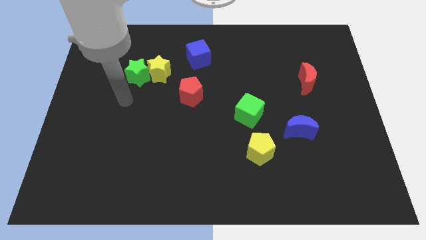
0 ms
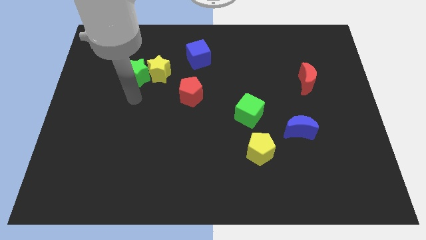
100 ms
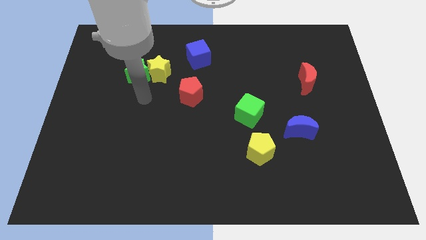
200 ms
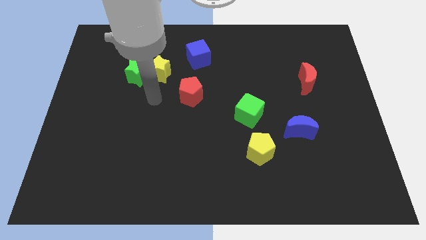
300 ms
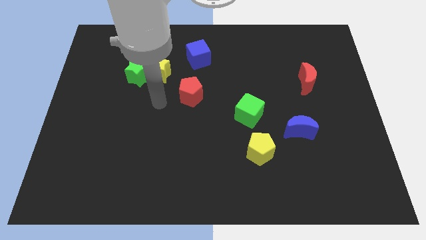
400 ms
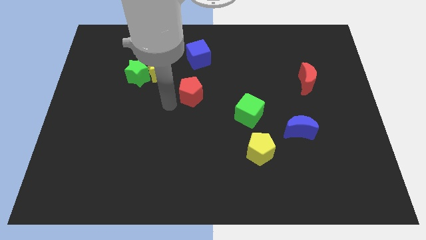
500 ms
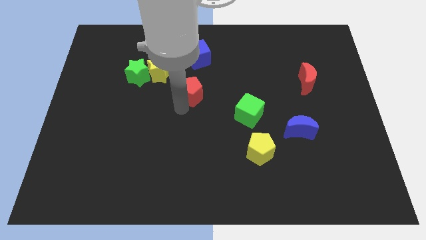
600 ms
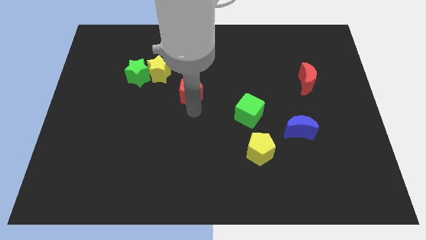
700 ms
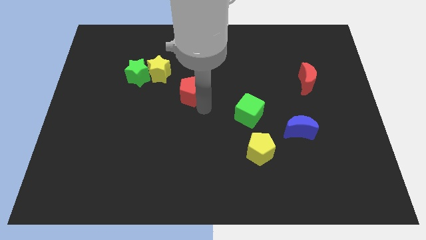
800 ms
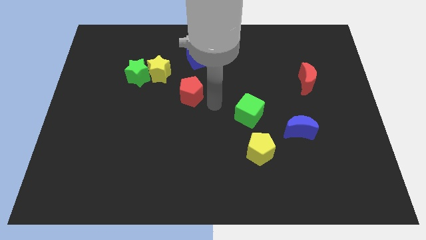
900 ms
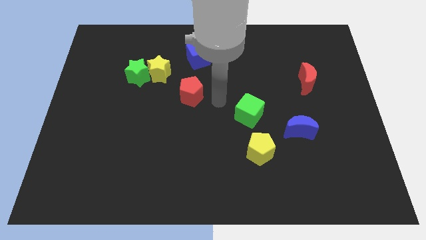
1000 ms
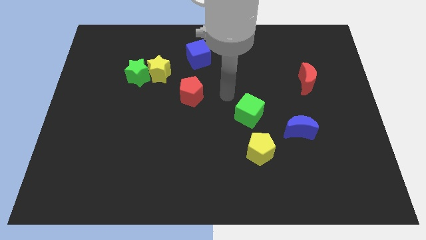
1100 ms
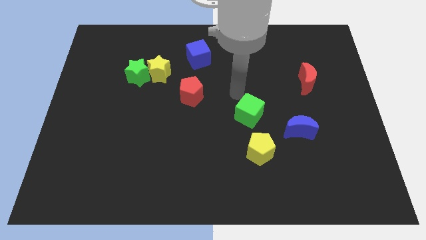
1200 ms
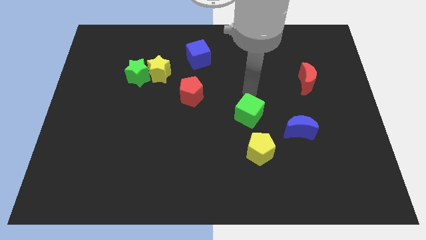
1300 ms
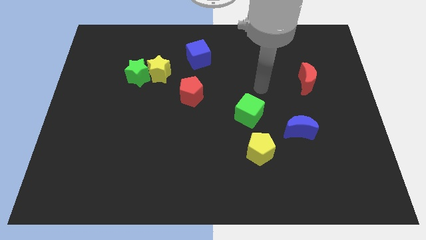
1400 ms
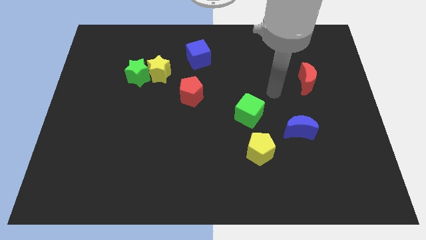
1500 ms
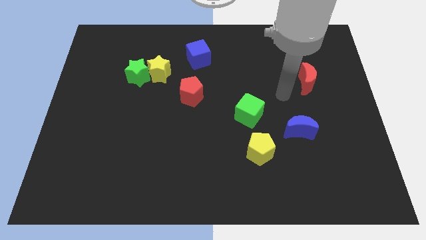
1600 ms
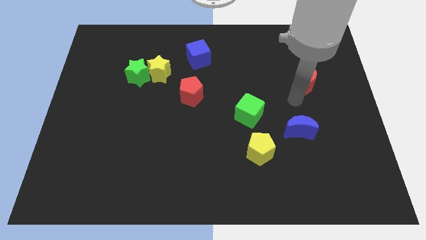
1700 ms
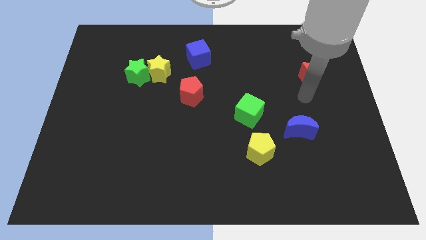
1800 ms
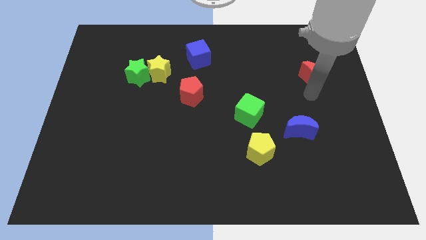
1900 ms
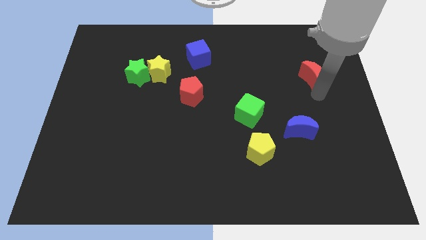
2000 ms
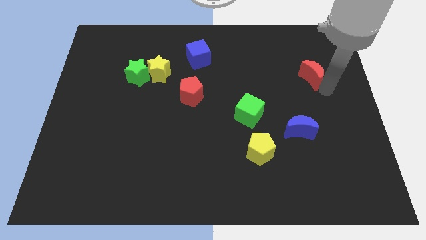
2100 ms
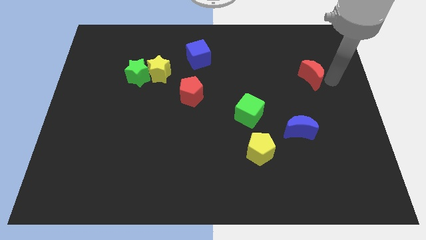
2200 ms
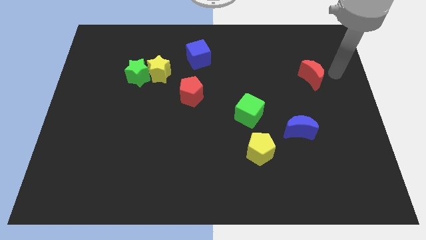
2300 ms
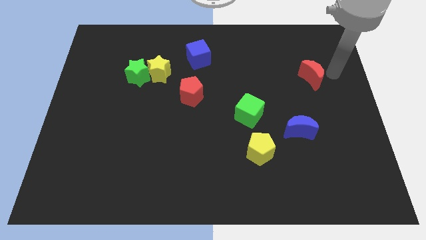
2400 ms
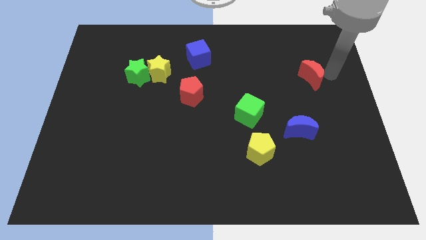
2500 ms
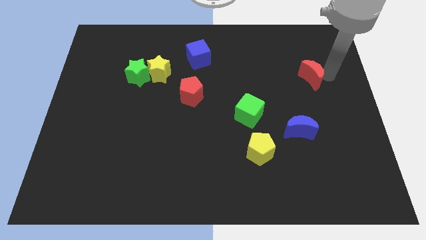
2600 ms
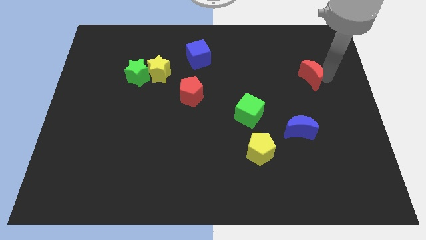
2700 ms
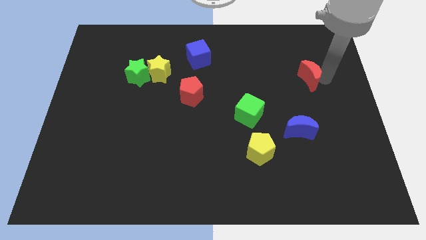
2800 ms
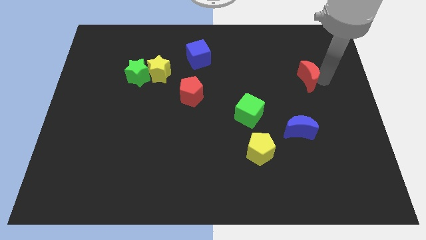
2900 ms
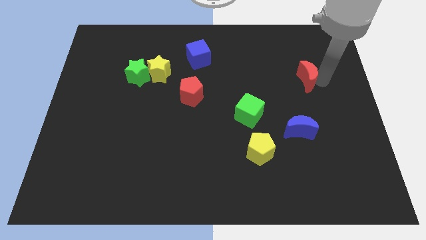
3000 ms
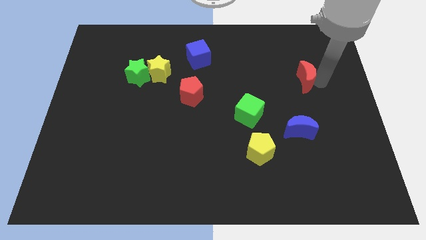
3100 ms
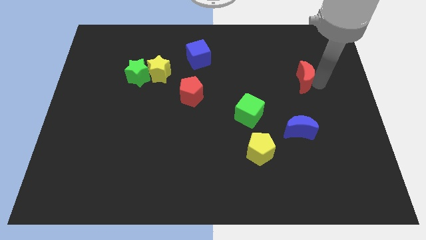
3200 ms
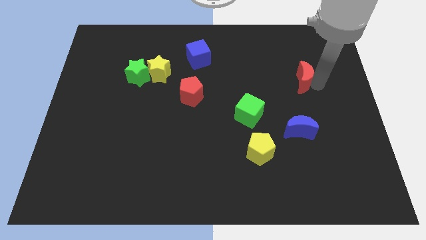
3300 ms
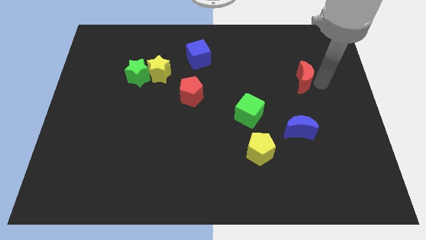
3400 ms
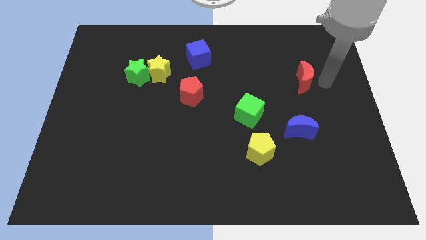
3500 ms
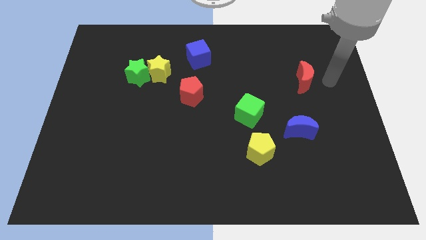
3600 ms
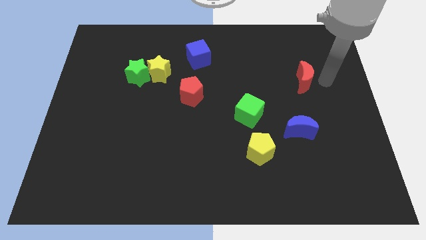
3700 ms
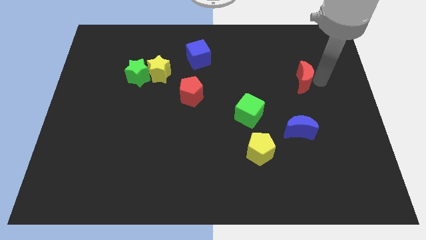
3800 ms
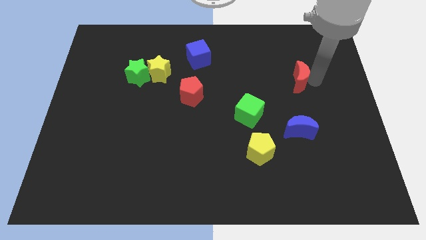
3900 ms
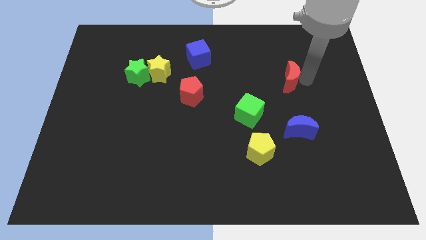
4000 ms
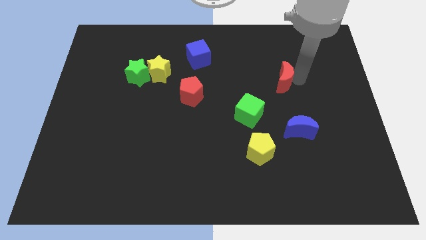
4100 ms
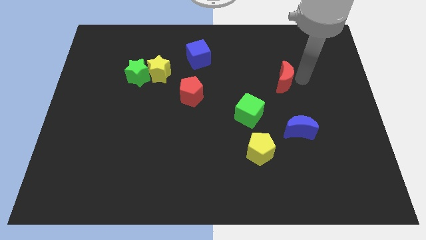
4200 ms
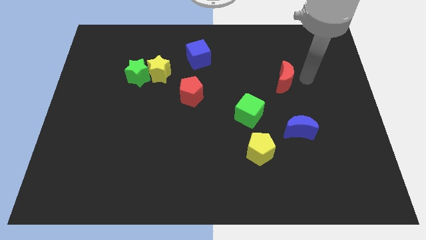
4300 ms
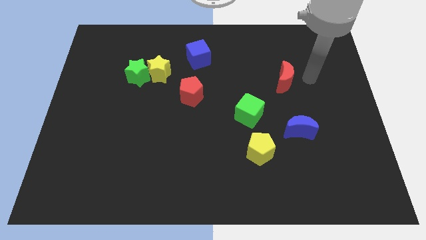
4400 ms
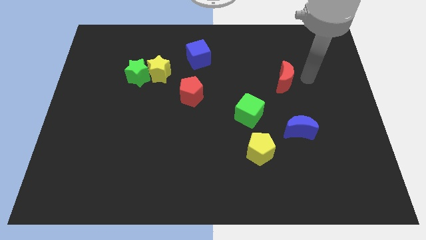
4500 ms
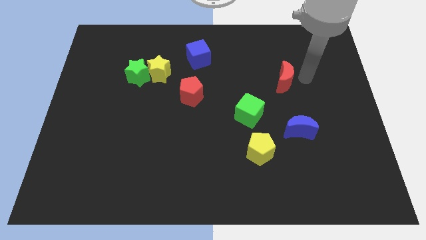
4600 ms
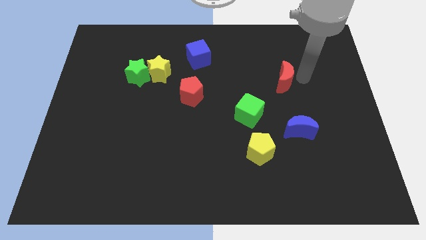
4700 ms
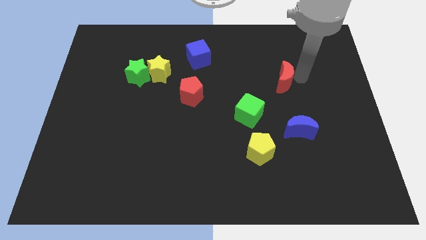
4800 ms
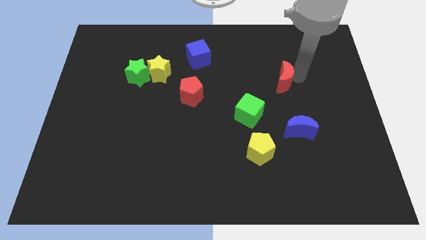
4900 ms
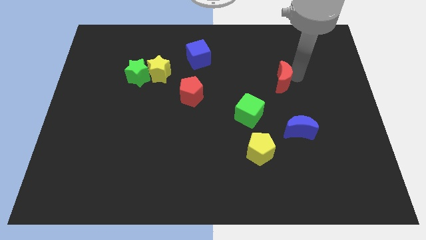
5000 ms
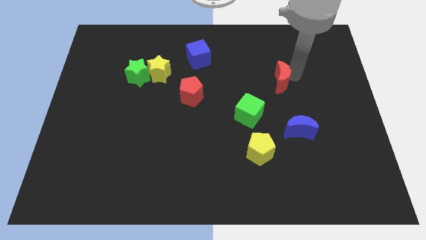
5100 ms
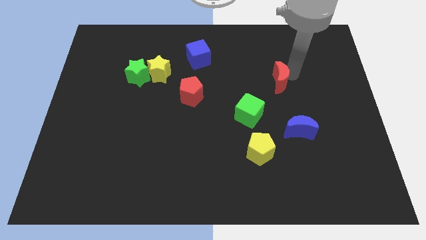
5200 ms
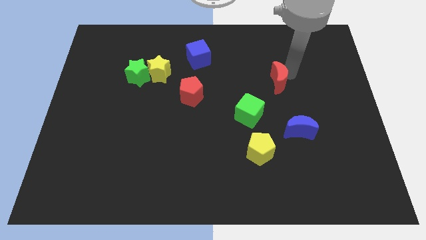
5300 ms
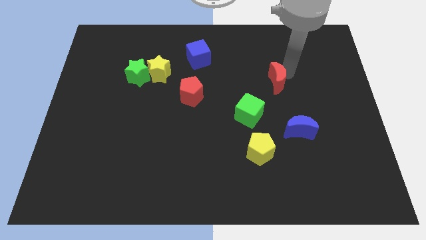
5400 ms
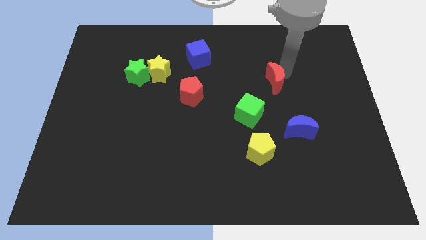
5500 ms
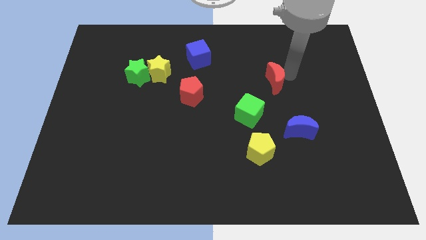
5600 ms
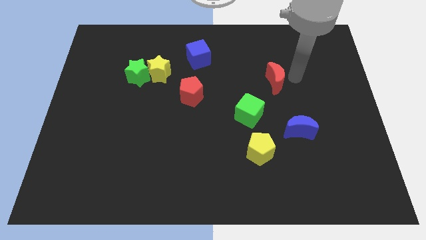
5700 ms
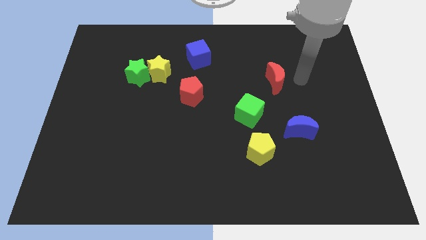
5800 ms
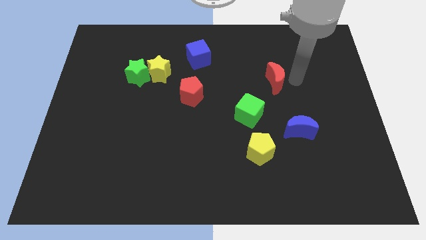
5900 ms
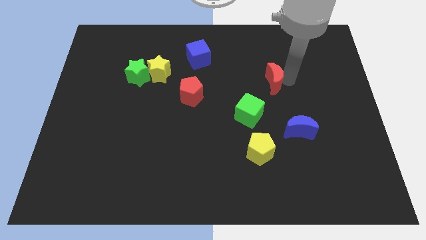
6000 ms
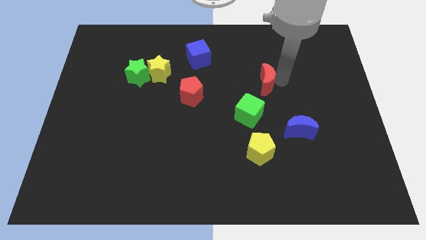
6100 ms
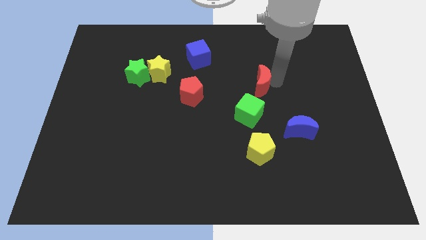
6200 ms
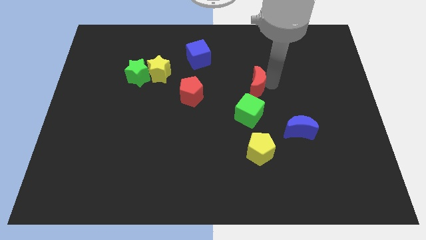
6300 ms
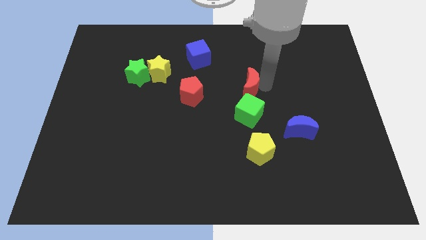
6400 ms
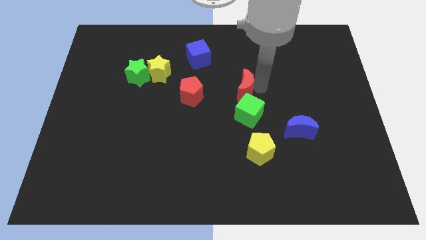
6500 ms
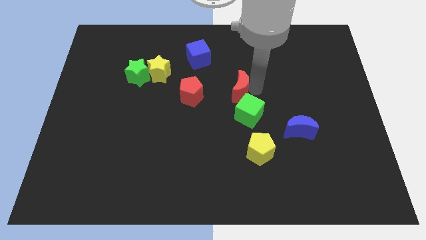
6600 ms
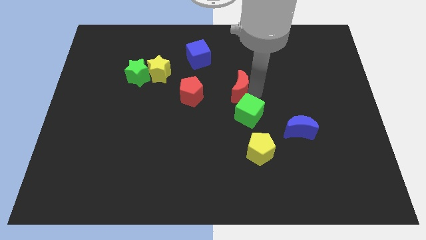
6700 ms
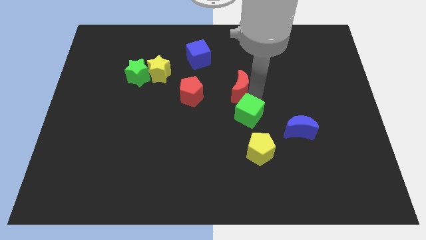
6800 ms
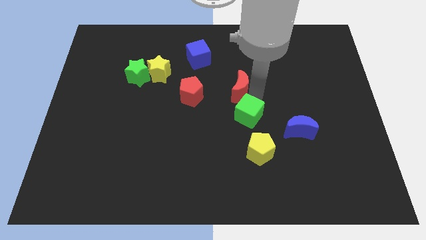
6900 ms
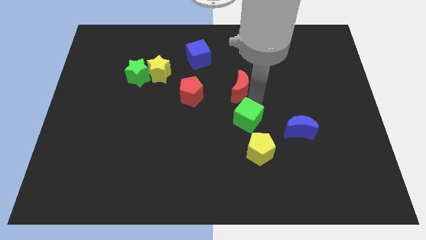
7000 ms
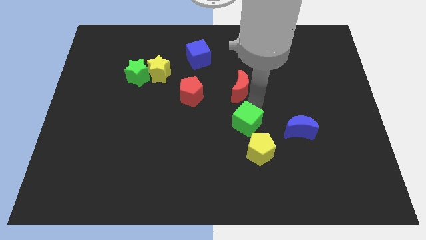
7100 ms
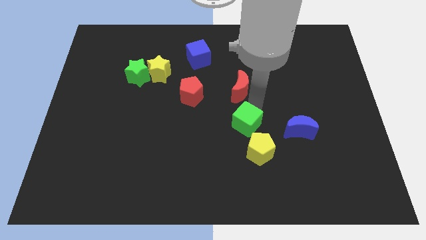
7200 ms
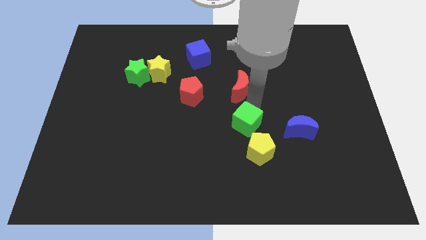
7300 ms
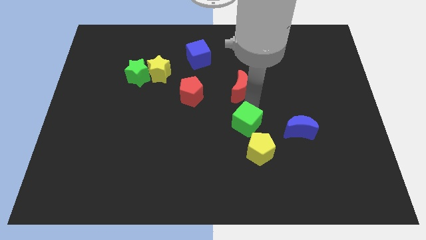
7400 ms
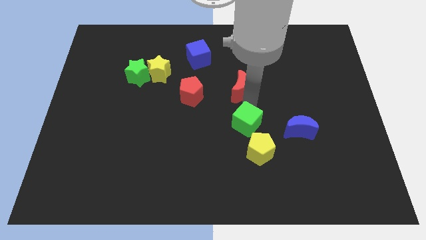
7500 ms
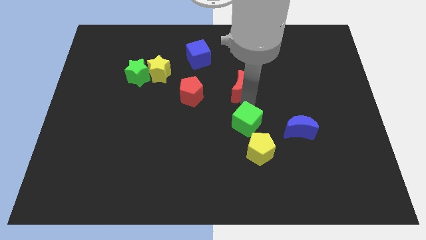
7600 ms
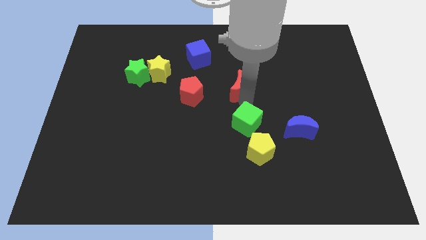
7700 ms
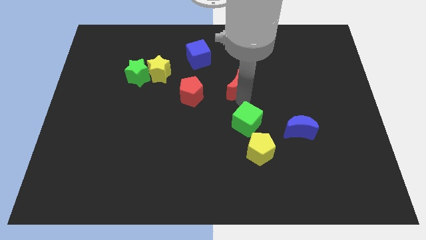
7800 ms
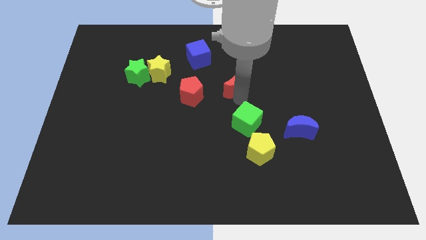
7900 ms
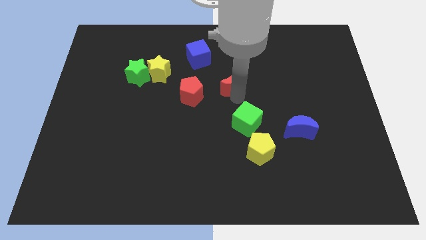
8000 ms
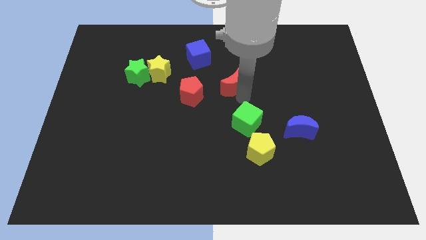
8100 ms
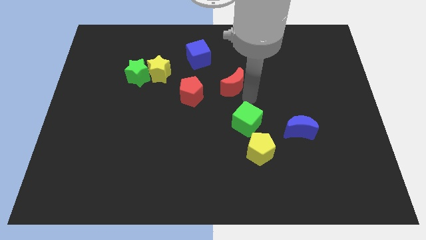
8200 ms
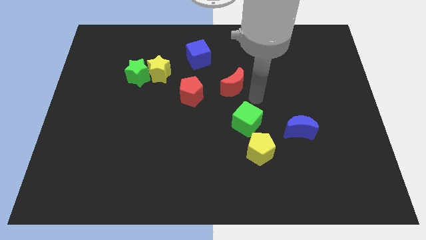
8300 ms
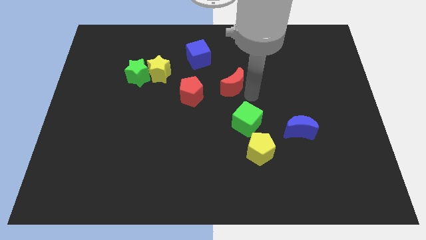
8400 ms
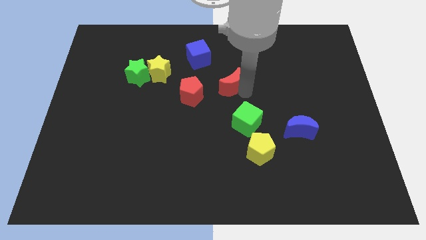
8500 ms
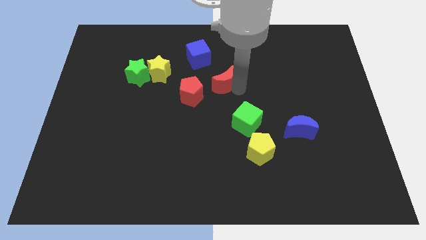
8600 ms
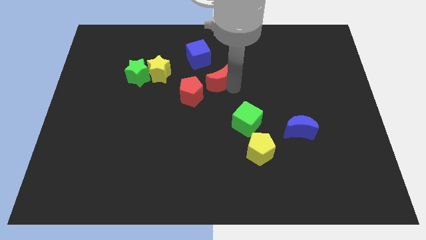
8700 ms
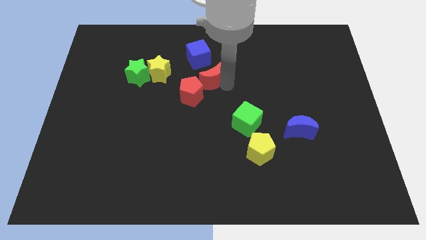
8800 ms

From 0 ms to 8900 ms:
put the red moon to the right side of the yellow star
